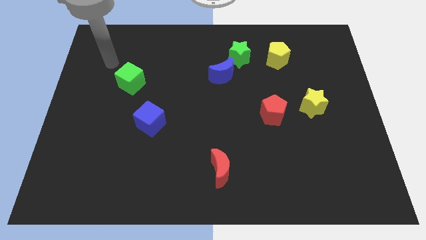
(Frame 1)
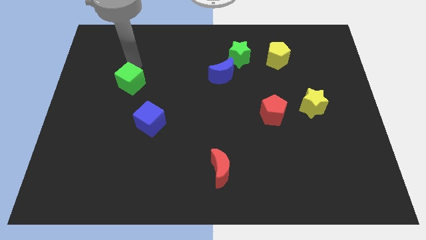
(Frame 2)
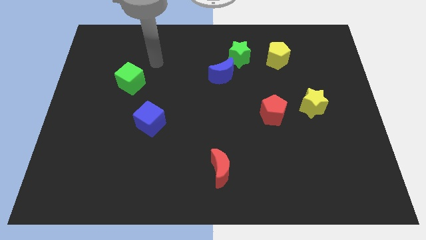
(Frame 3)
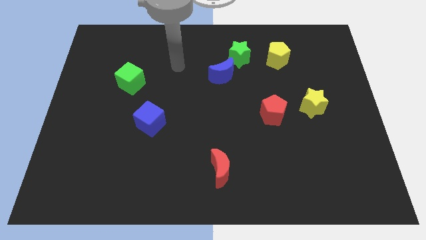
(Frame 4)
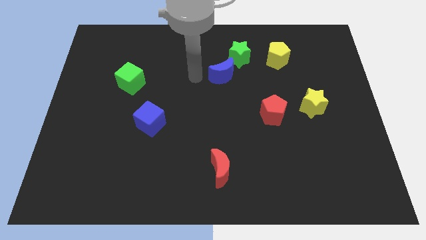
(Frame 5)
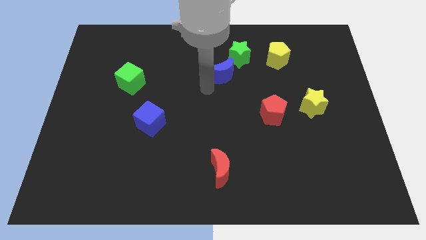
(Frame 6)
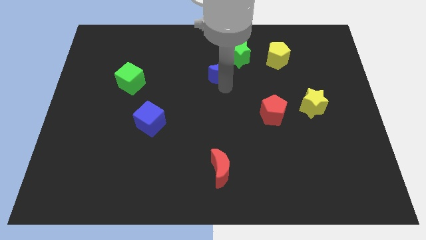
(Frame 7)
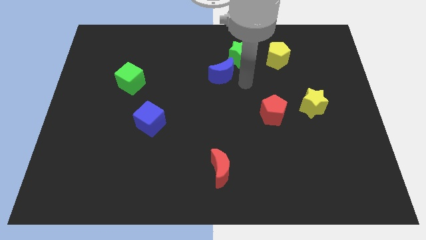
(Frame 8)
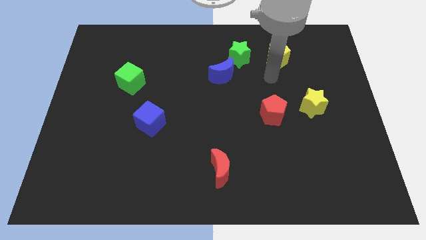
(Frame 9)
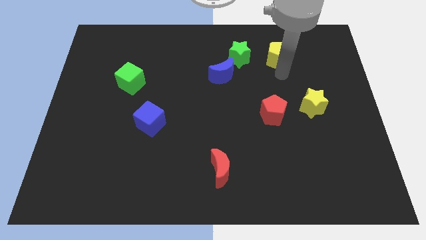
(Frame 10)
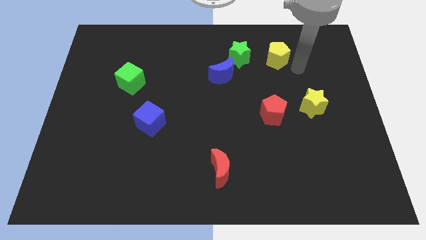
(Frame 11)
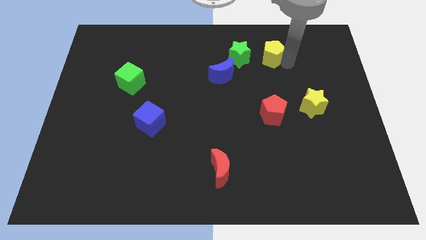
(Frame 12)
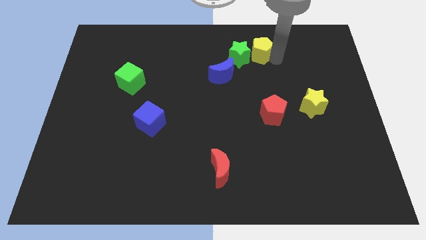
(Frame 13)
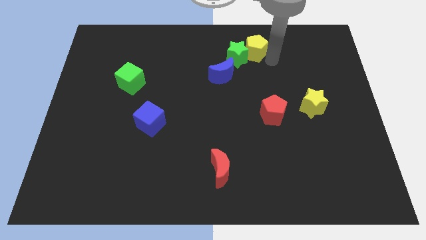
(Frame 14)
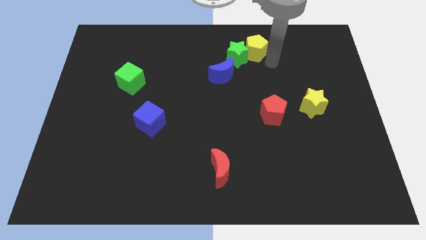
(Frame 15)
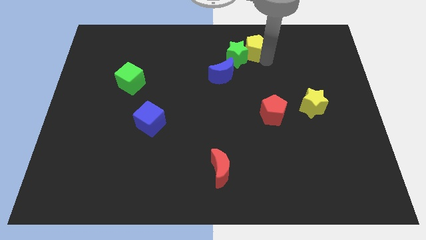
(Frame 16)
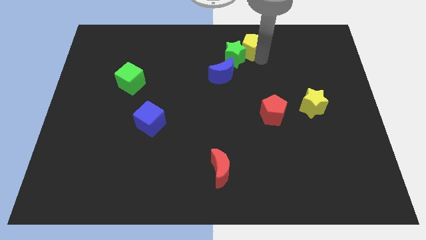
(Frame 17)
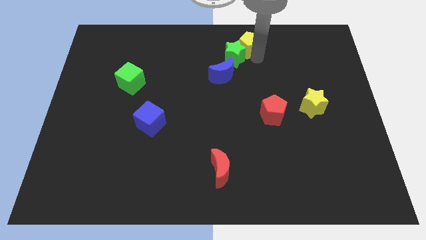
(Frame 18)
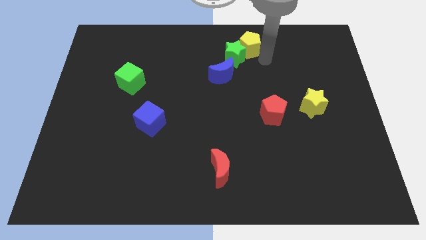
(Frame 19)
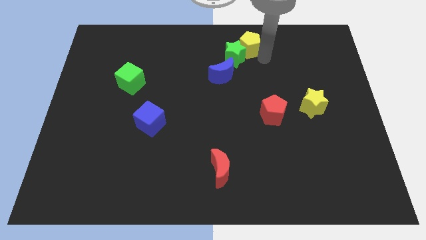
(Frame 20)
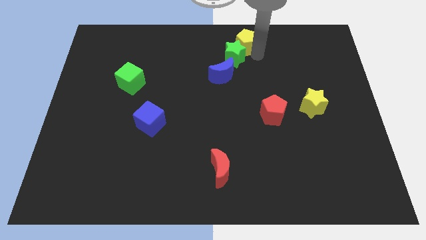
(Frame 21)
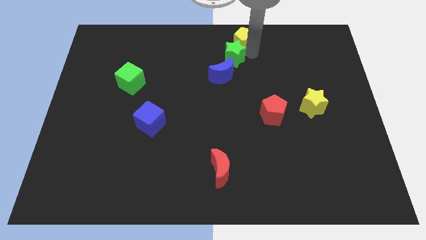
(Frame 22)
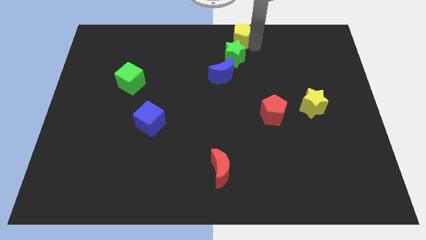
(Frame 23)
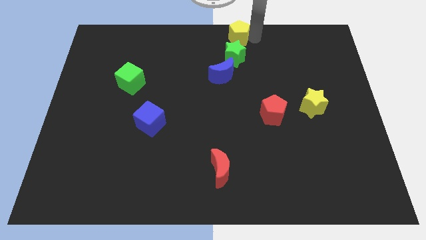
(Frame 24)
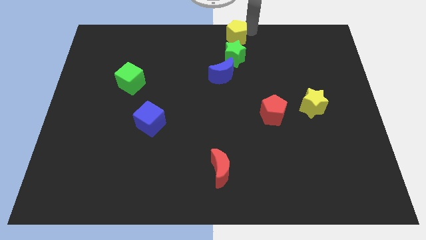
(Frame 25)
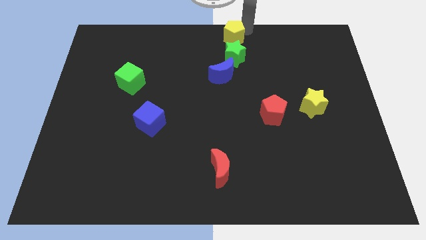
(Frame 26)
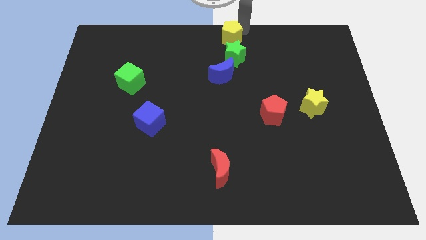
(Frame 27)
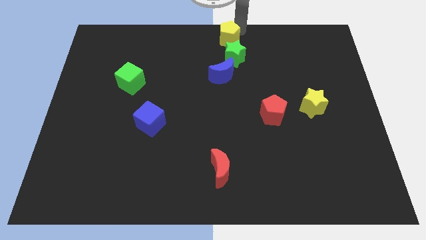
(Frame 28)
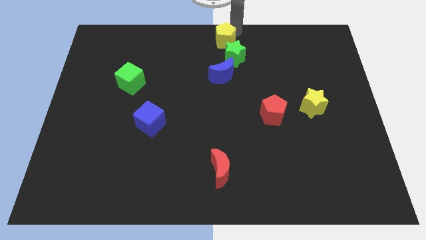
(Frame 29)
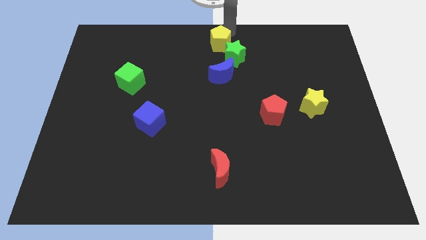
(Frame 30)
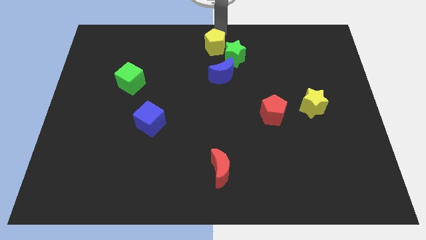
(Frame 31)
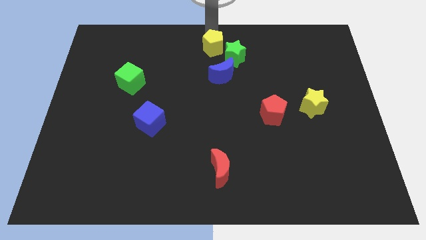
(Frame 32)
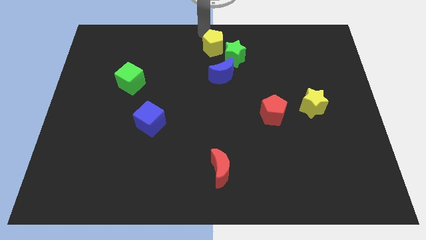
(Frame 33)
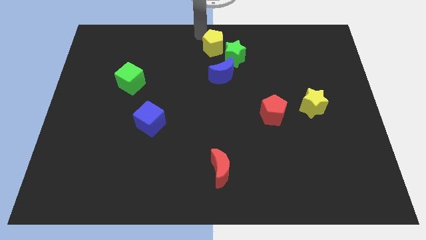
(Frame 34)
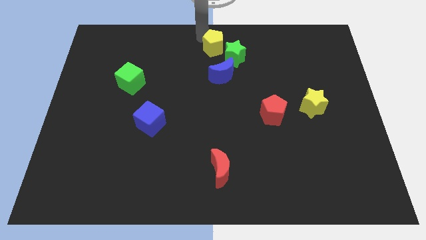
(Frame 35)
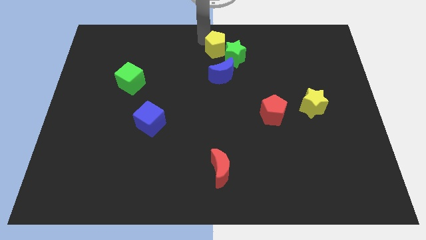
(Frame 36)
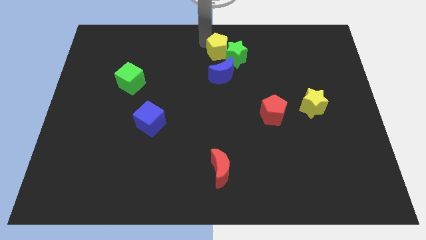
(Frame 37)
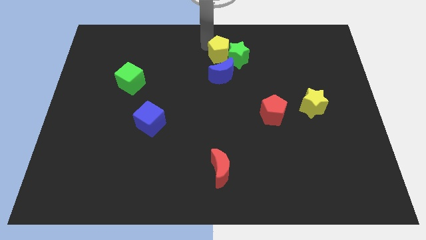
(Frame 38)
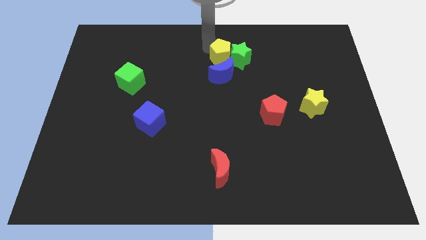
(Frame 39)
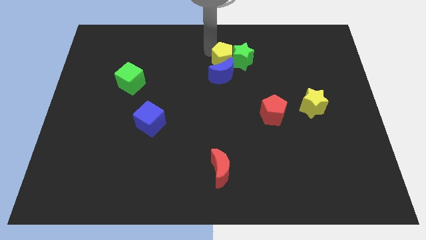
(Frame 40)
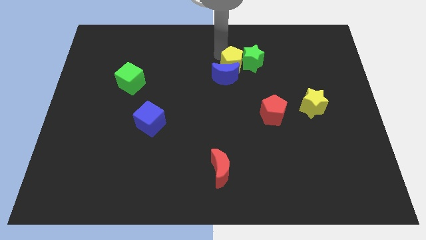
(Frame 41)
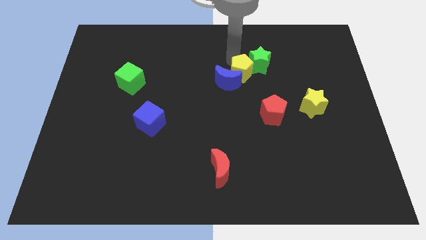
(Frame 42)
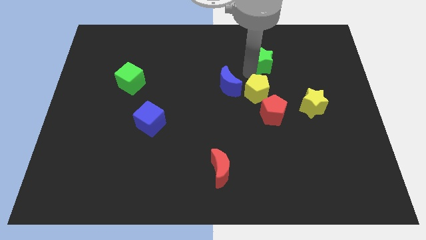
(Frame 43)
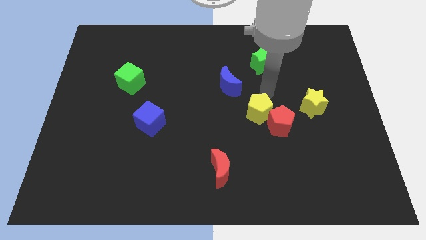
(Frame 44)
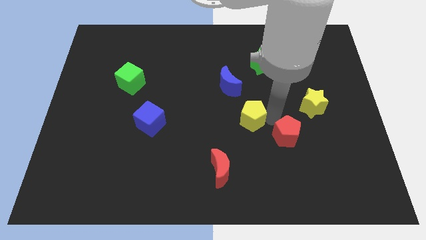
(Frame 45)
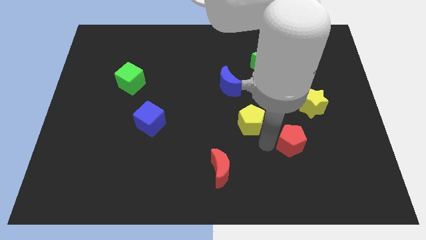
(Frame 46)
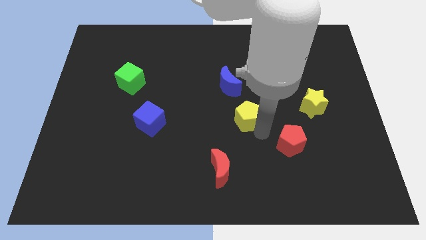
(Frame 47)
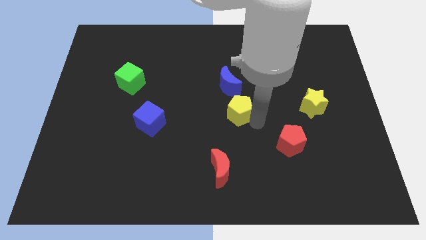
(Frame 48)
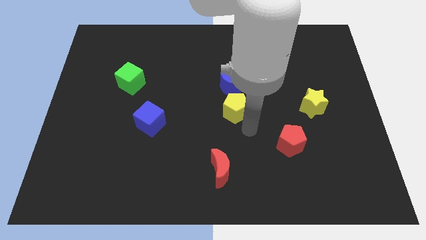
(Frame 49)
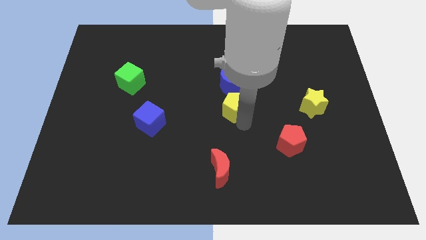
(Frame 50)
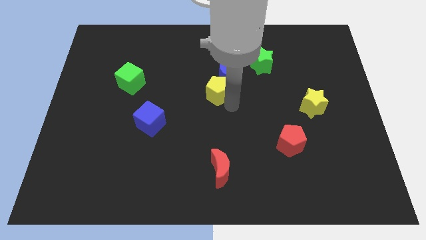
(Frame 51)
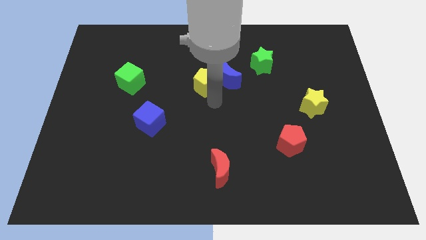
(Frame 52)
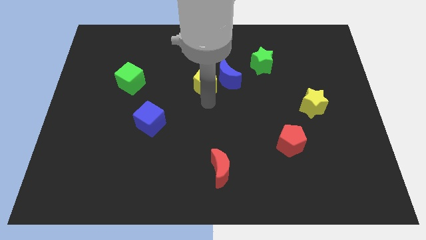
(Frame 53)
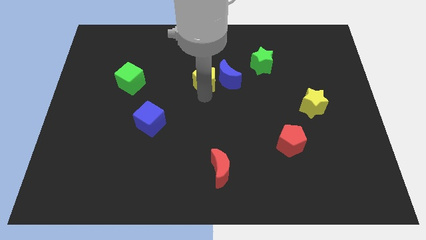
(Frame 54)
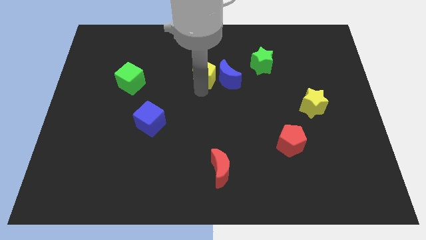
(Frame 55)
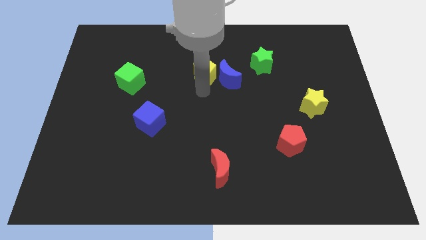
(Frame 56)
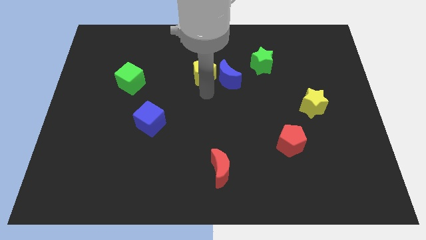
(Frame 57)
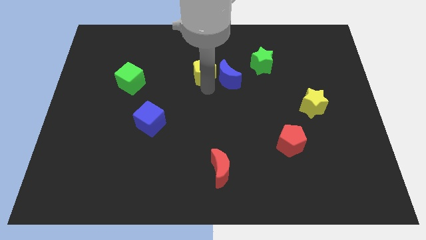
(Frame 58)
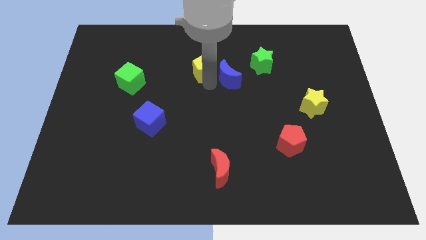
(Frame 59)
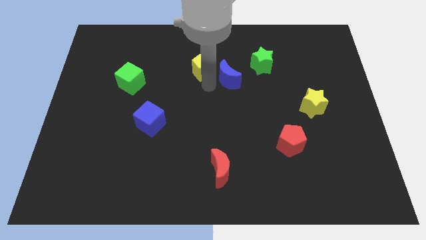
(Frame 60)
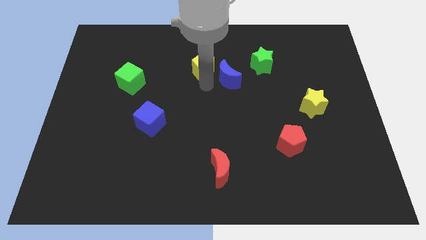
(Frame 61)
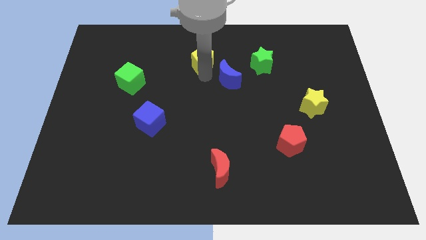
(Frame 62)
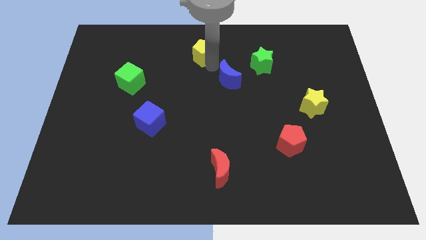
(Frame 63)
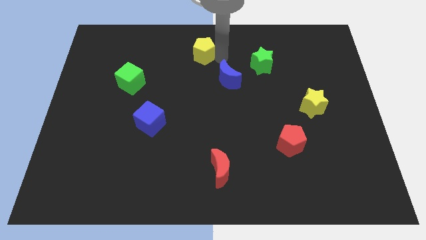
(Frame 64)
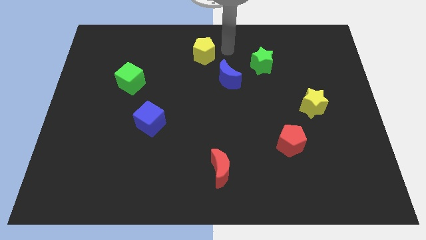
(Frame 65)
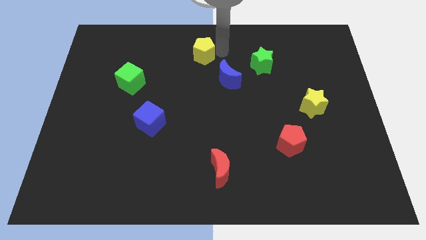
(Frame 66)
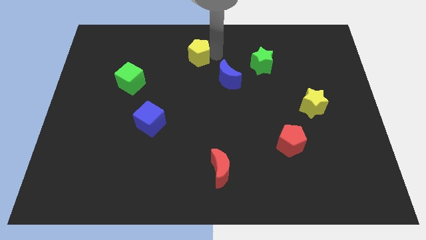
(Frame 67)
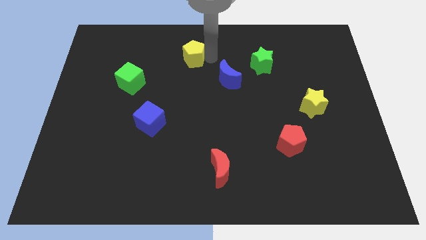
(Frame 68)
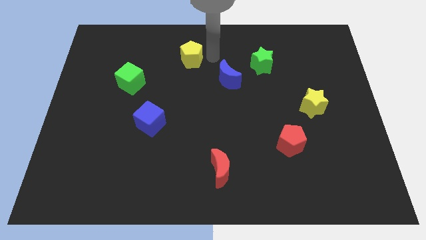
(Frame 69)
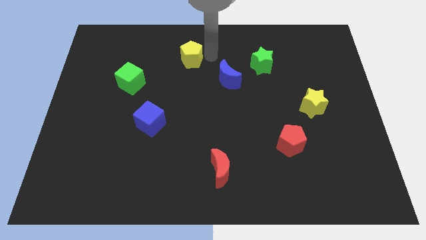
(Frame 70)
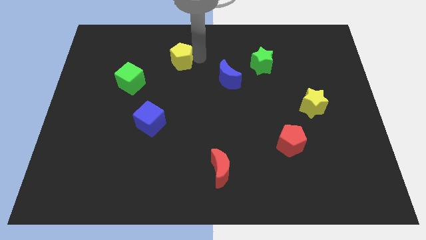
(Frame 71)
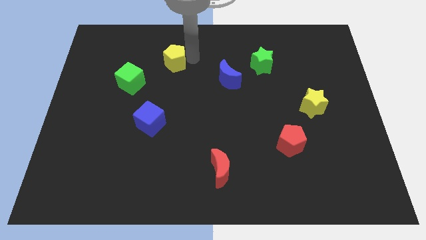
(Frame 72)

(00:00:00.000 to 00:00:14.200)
move the yellow pentagon to the top right side of the green cube
